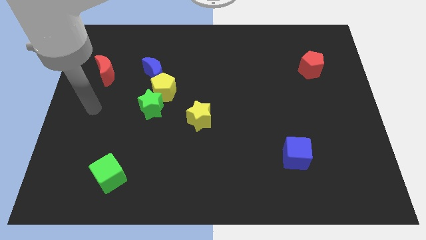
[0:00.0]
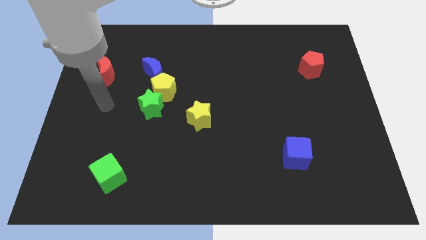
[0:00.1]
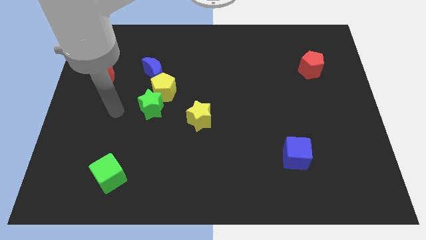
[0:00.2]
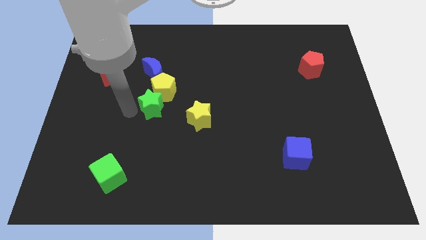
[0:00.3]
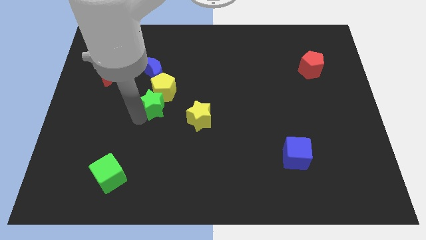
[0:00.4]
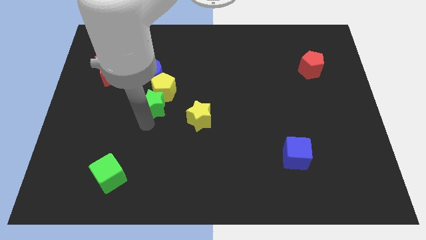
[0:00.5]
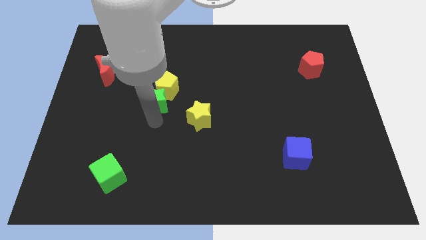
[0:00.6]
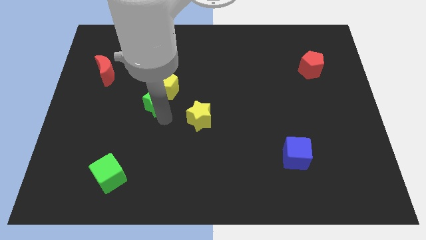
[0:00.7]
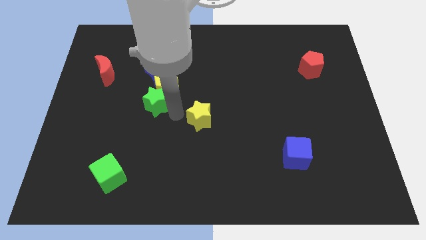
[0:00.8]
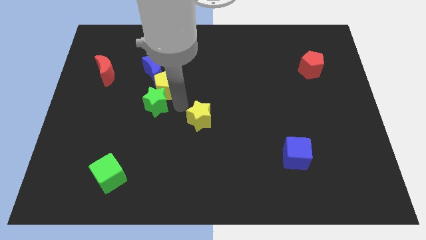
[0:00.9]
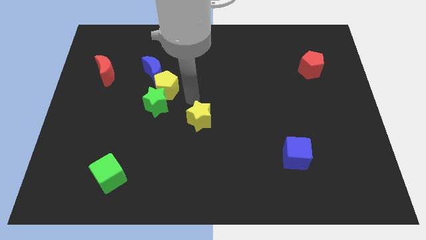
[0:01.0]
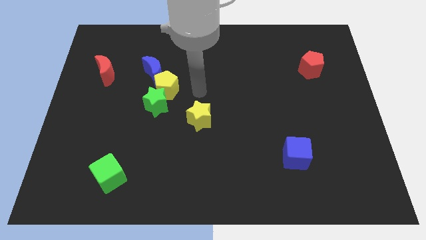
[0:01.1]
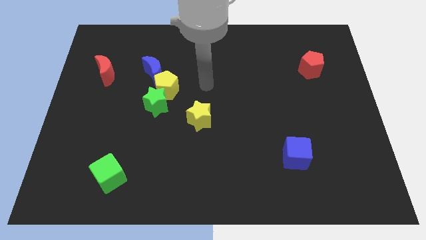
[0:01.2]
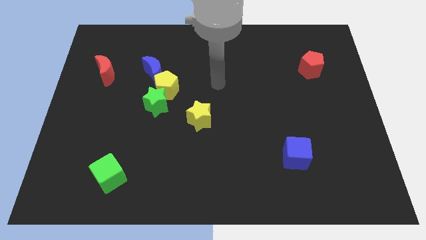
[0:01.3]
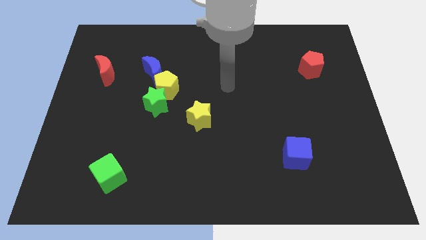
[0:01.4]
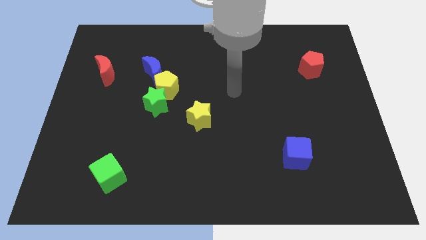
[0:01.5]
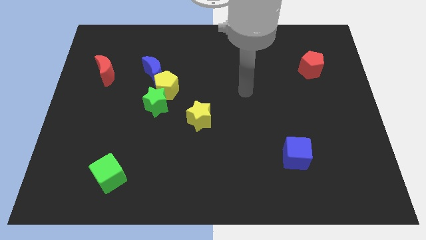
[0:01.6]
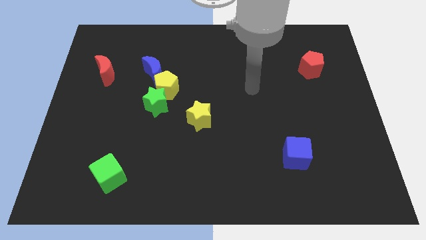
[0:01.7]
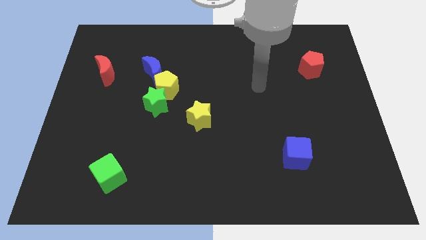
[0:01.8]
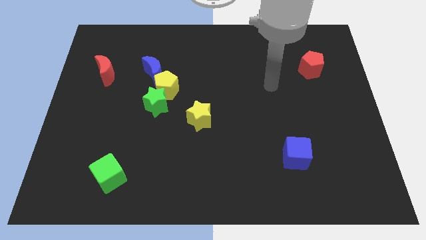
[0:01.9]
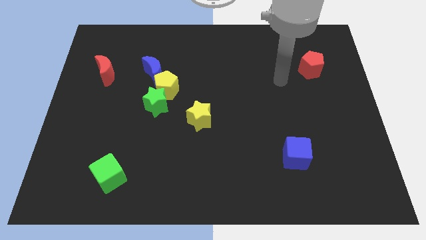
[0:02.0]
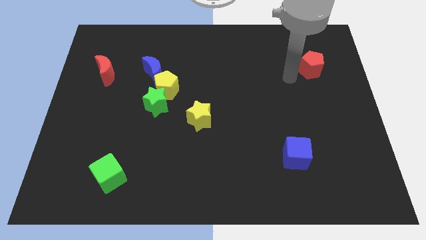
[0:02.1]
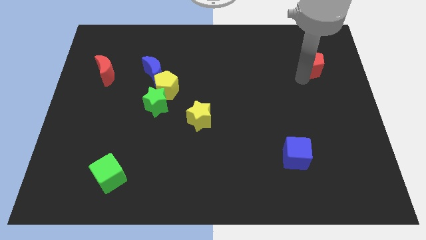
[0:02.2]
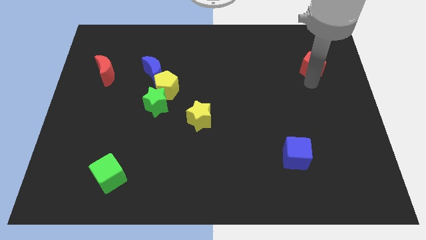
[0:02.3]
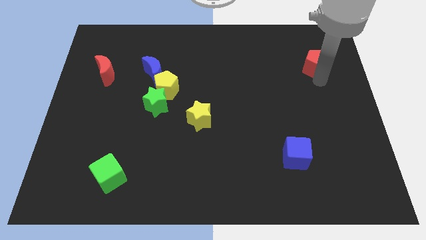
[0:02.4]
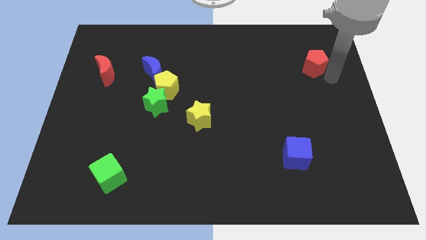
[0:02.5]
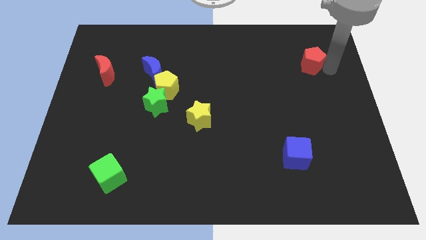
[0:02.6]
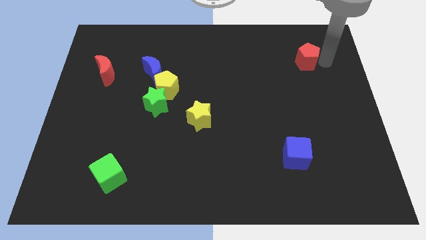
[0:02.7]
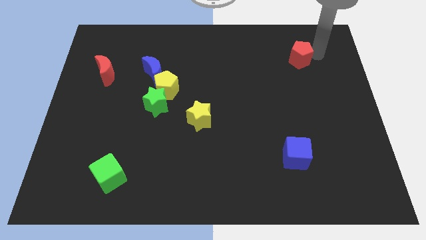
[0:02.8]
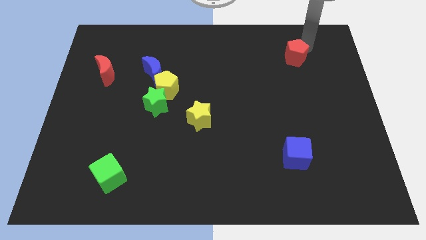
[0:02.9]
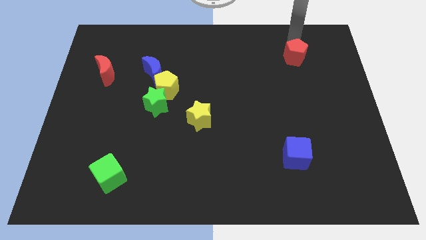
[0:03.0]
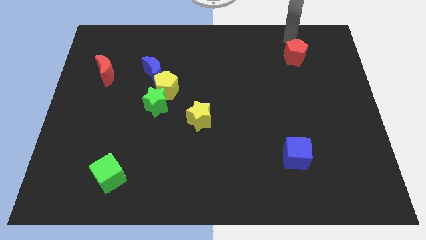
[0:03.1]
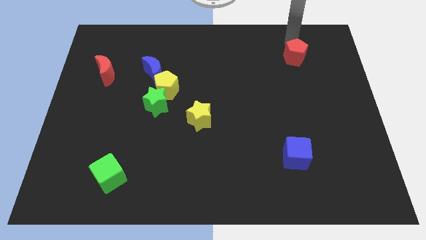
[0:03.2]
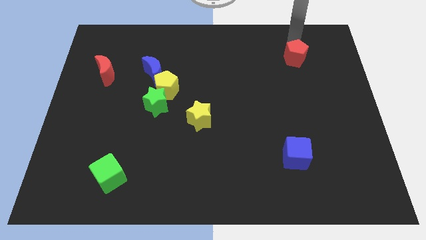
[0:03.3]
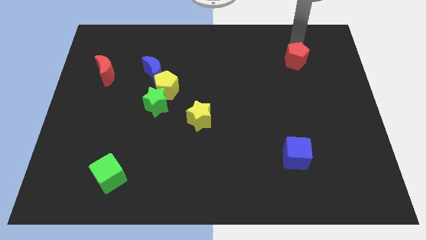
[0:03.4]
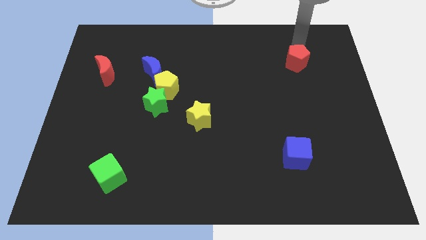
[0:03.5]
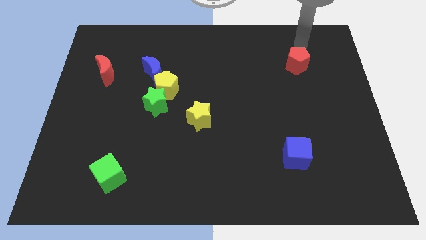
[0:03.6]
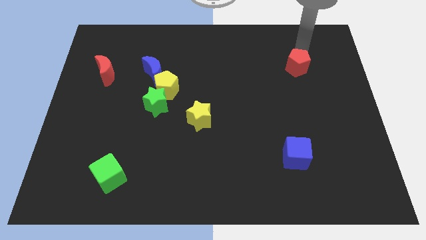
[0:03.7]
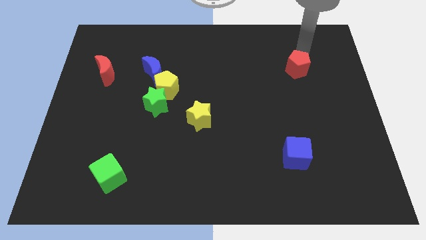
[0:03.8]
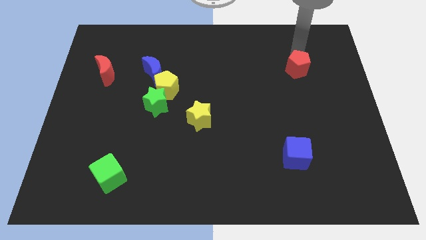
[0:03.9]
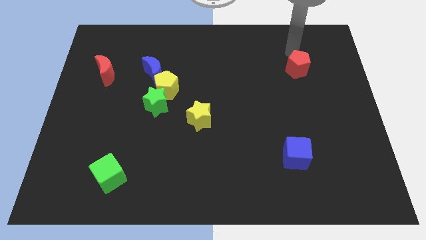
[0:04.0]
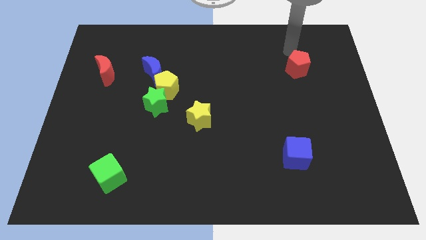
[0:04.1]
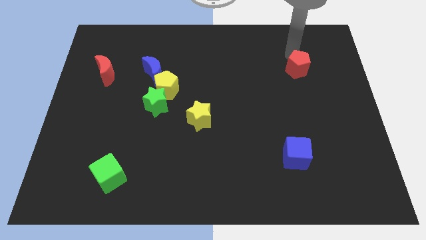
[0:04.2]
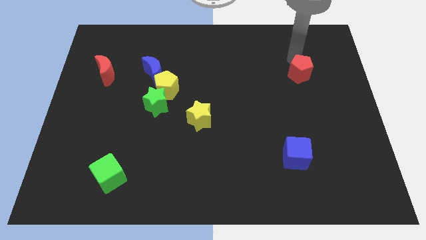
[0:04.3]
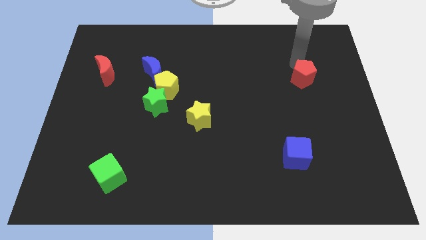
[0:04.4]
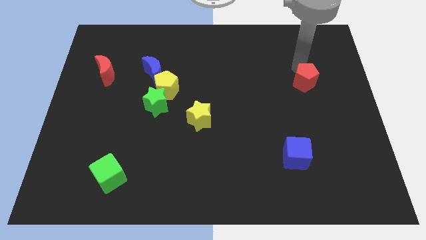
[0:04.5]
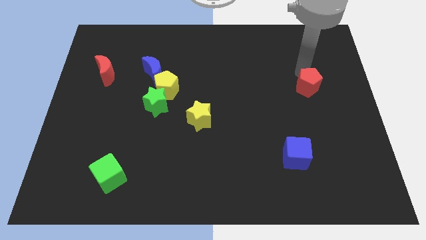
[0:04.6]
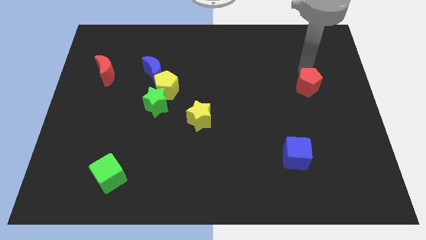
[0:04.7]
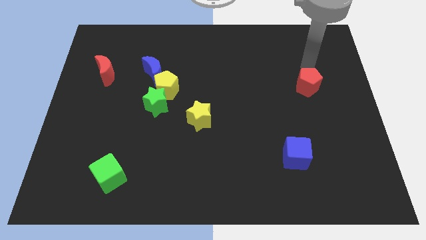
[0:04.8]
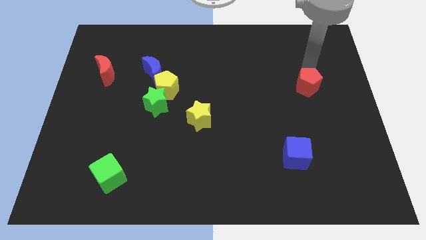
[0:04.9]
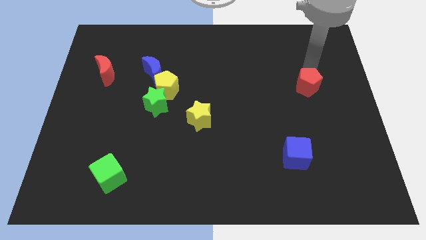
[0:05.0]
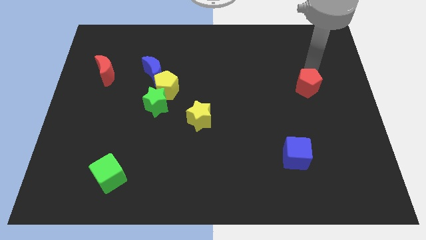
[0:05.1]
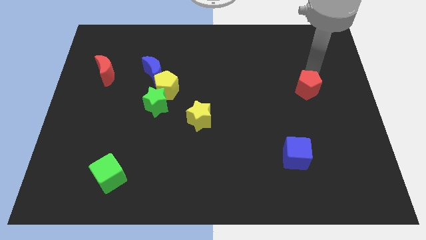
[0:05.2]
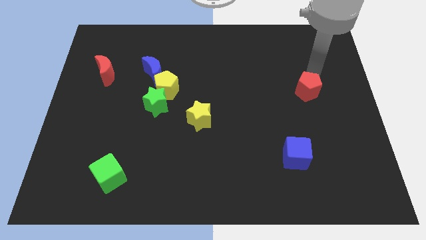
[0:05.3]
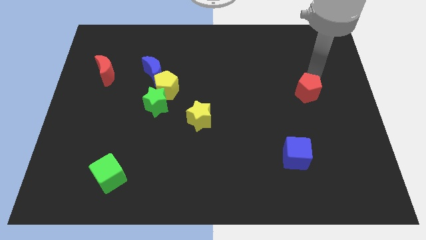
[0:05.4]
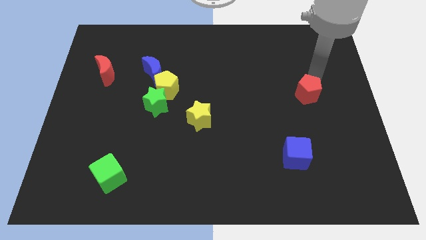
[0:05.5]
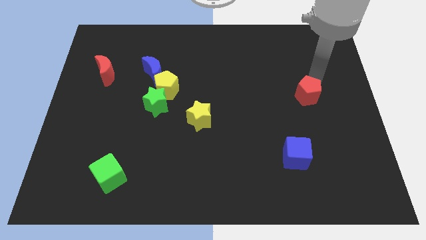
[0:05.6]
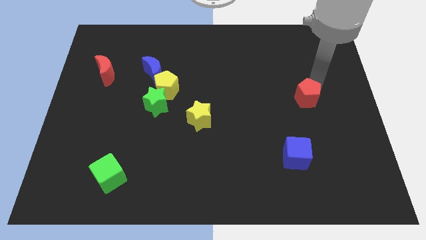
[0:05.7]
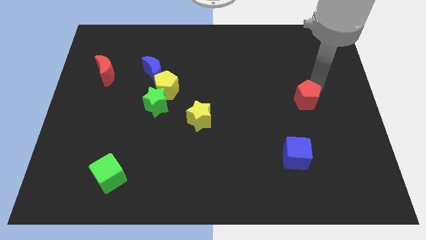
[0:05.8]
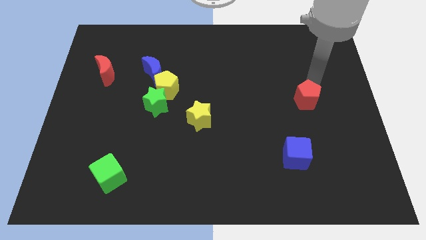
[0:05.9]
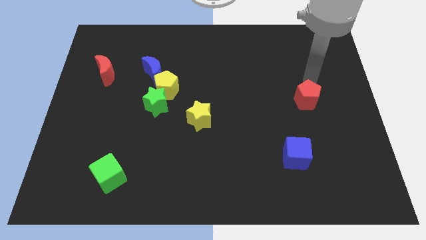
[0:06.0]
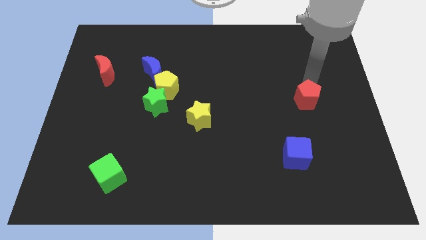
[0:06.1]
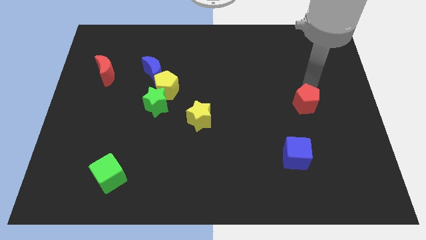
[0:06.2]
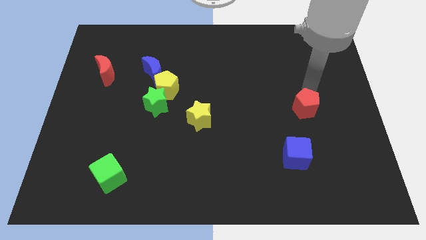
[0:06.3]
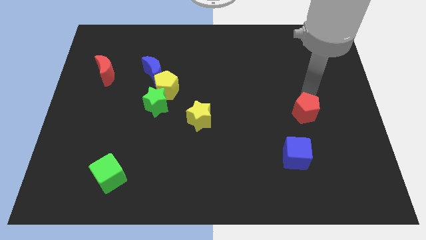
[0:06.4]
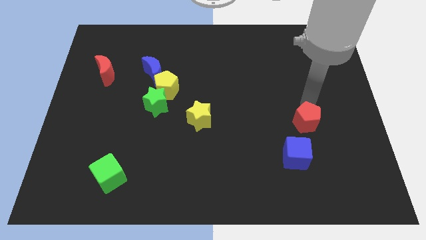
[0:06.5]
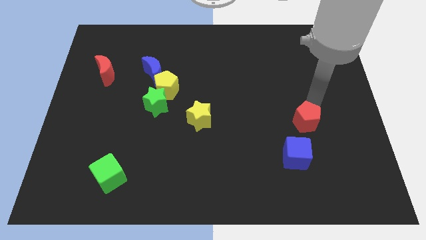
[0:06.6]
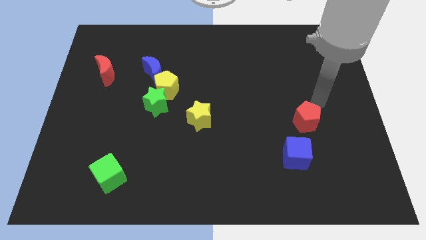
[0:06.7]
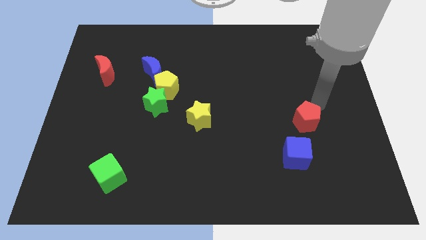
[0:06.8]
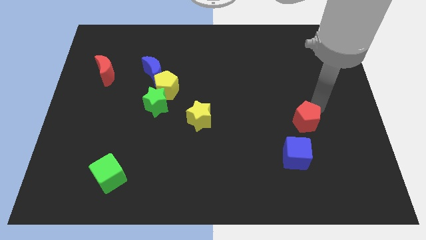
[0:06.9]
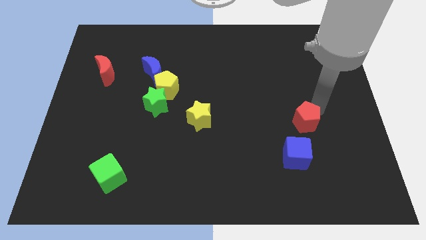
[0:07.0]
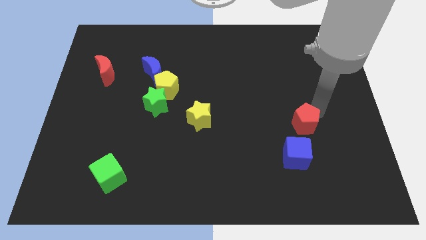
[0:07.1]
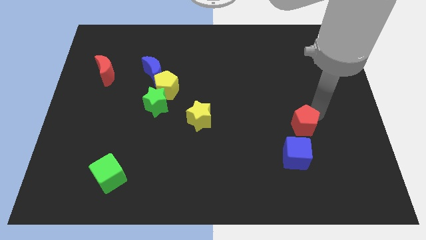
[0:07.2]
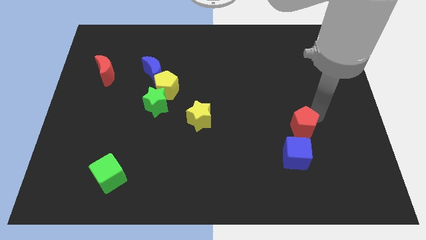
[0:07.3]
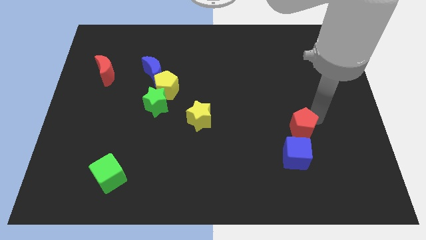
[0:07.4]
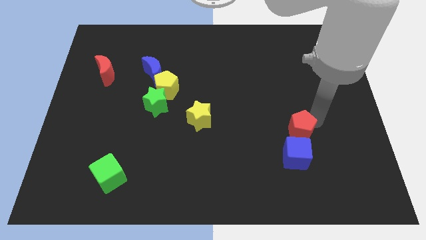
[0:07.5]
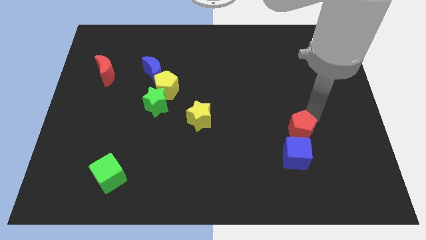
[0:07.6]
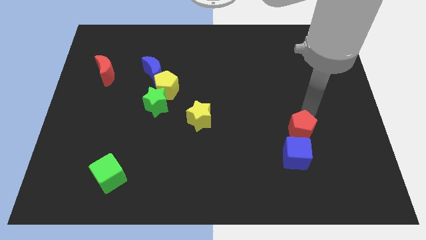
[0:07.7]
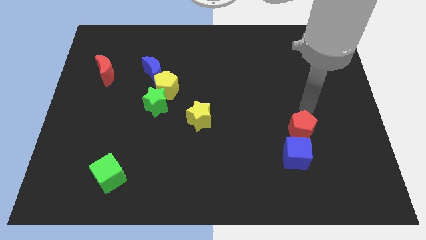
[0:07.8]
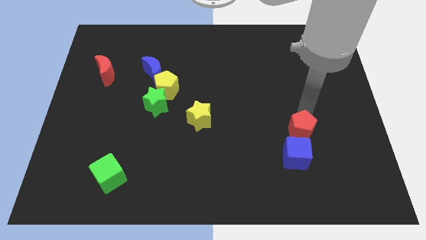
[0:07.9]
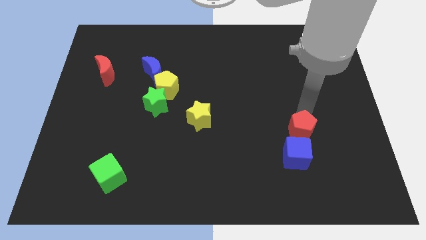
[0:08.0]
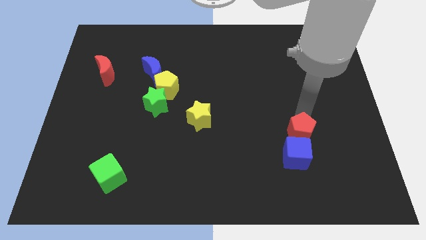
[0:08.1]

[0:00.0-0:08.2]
slide the red pentagon towards the blue cube
